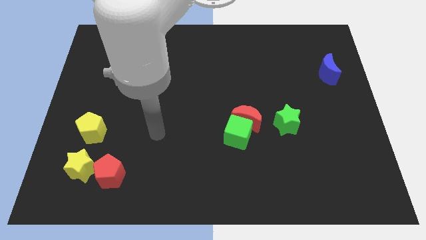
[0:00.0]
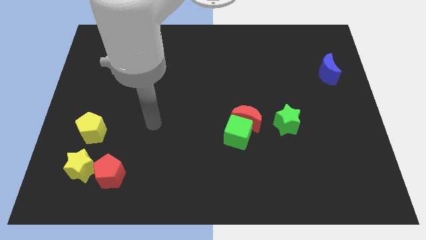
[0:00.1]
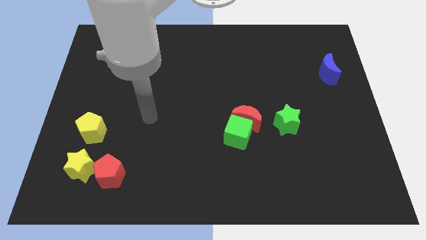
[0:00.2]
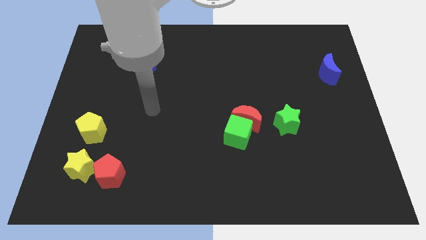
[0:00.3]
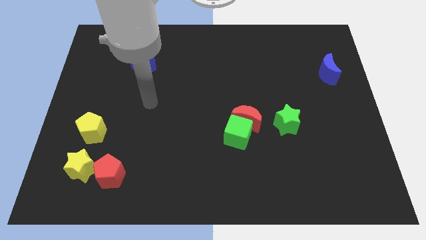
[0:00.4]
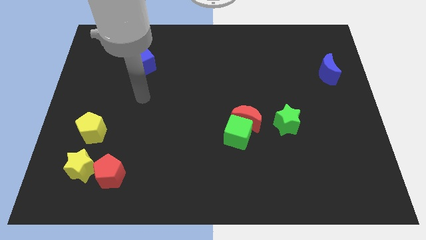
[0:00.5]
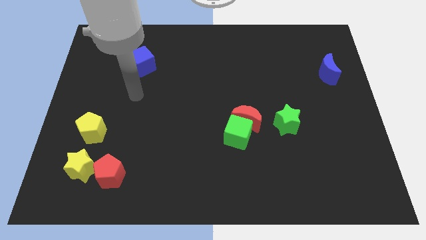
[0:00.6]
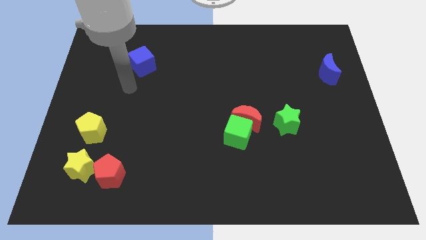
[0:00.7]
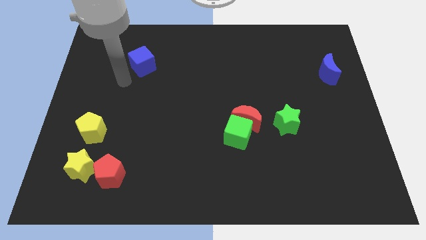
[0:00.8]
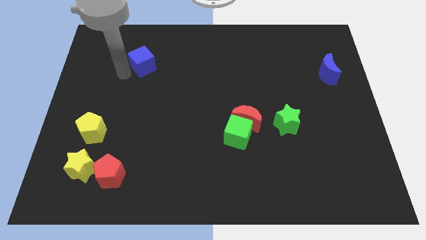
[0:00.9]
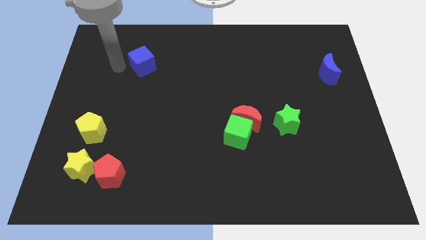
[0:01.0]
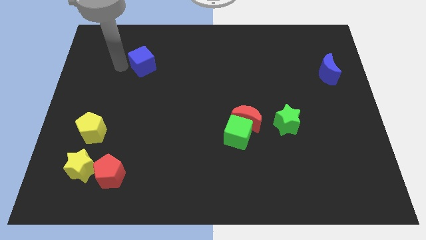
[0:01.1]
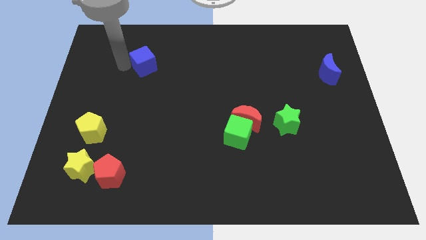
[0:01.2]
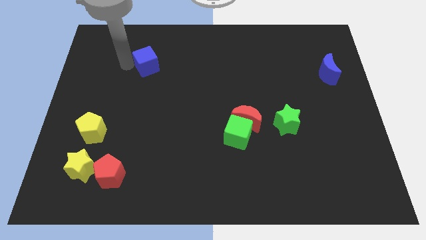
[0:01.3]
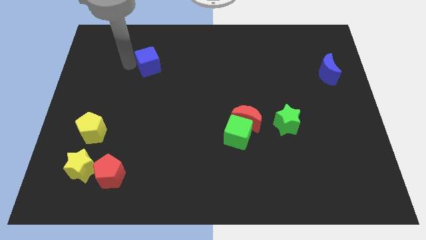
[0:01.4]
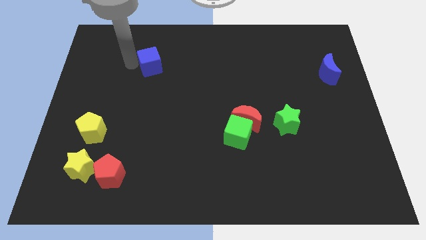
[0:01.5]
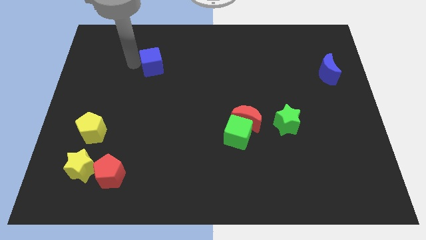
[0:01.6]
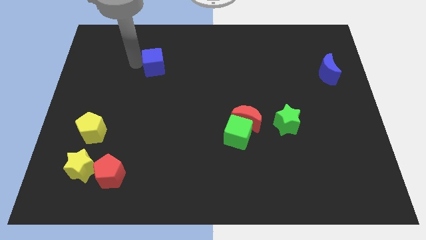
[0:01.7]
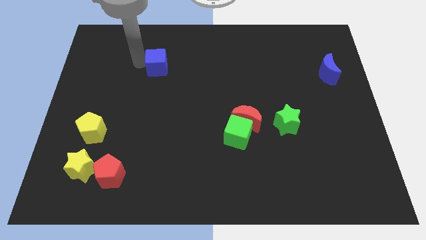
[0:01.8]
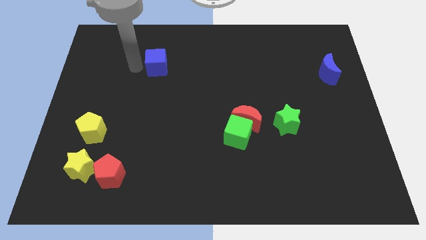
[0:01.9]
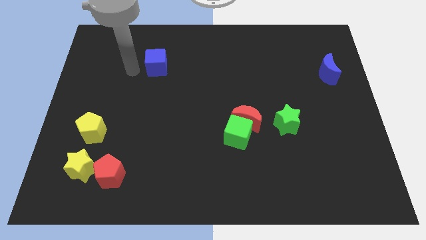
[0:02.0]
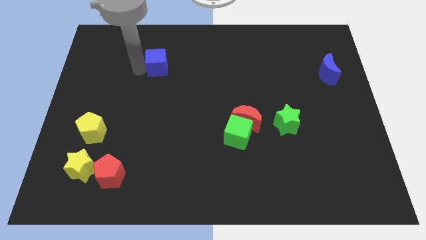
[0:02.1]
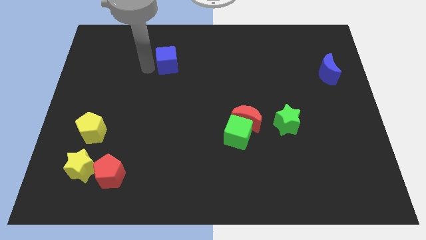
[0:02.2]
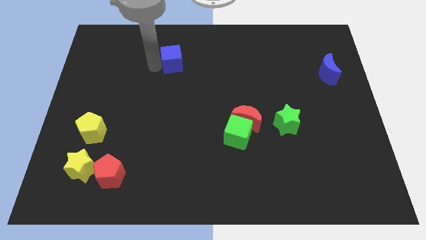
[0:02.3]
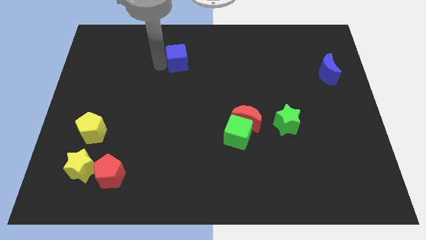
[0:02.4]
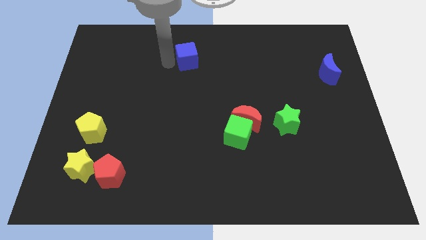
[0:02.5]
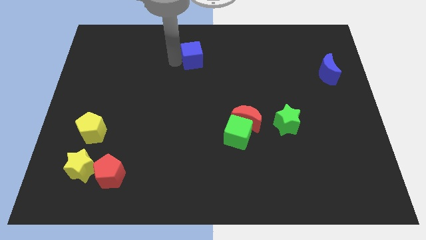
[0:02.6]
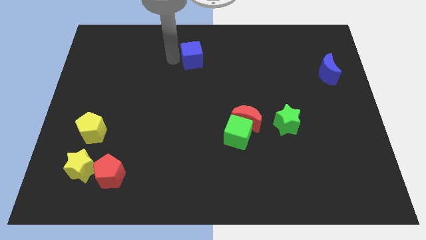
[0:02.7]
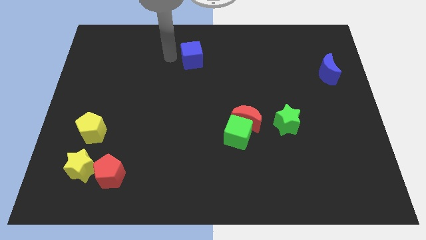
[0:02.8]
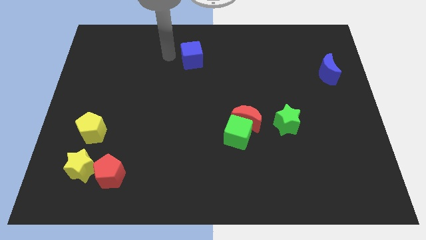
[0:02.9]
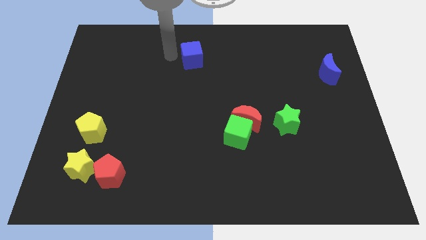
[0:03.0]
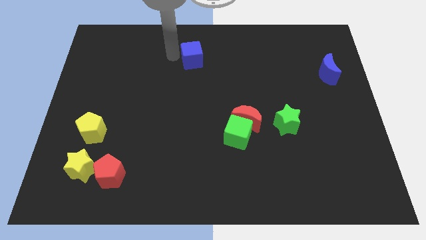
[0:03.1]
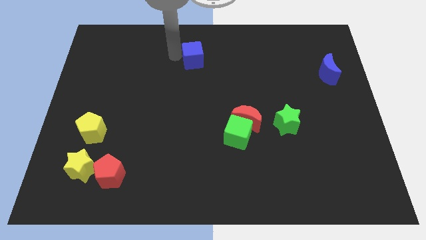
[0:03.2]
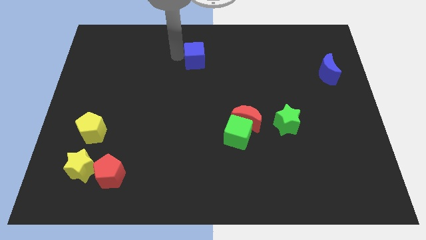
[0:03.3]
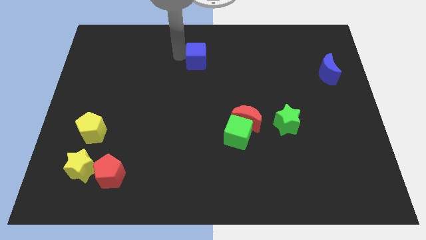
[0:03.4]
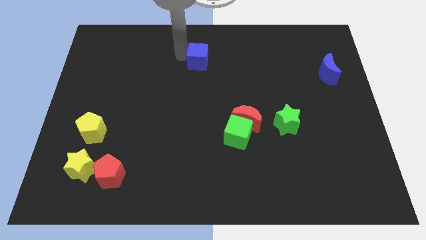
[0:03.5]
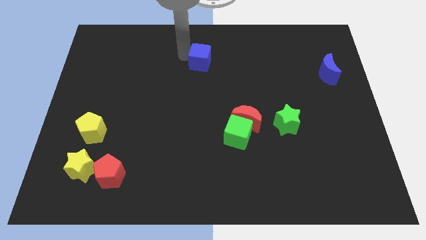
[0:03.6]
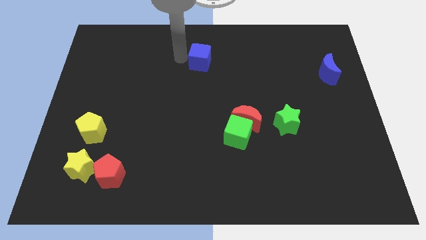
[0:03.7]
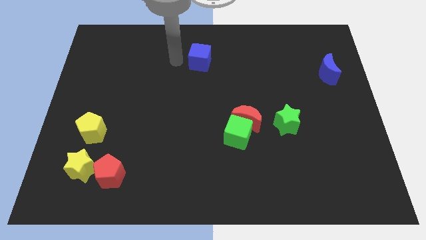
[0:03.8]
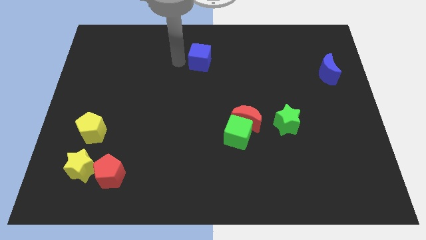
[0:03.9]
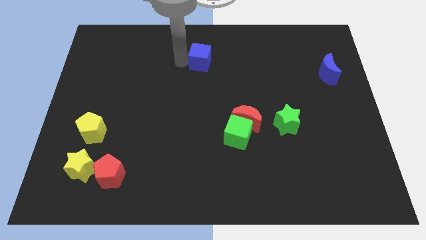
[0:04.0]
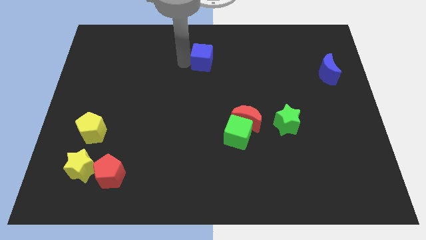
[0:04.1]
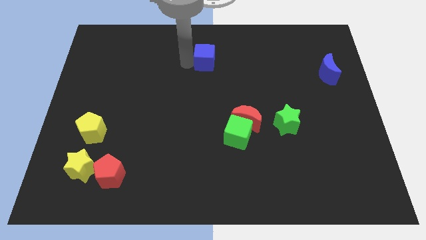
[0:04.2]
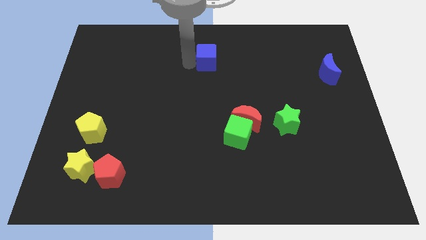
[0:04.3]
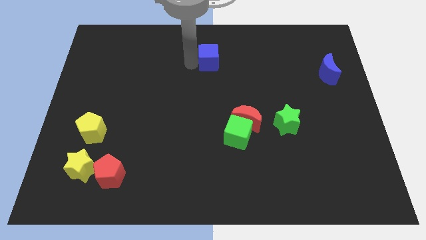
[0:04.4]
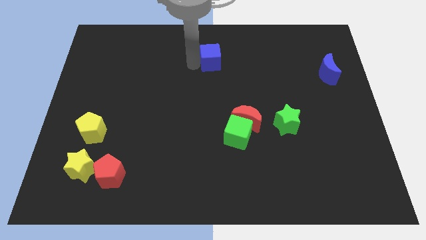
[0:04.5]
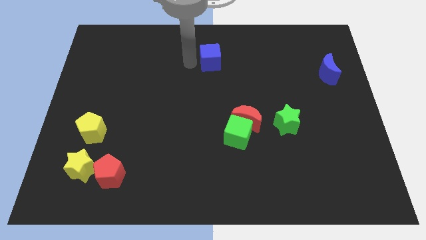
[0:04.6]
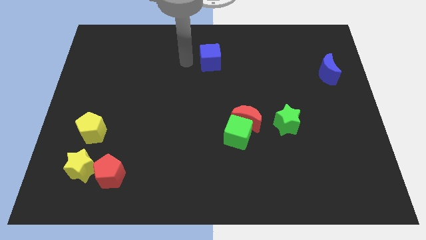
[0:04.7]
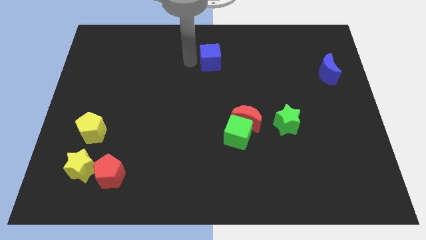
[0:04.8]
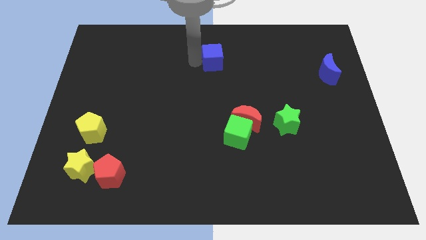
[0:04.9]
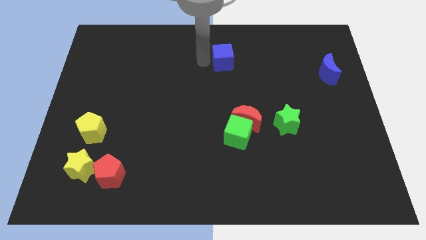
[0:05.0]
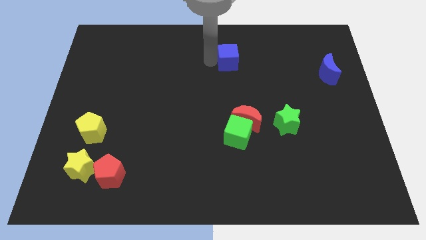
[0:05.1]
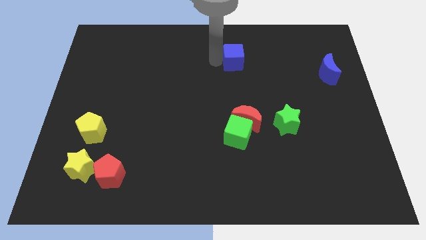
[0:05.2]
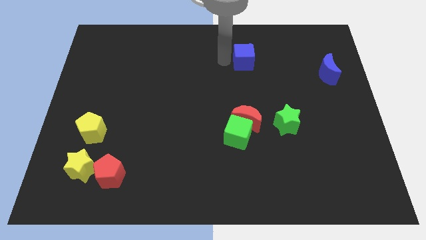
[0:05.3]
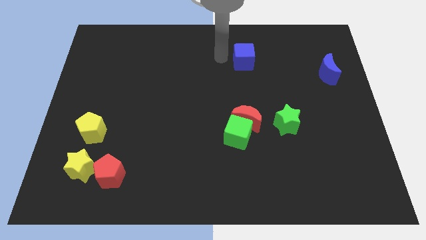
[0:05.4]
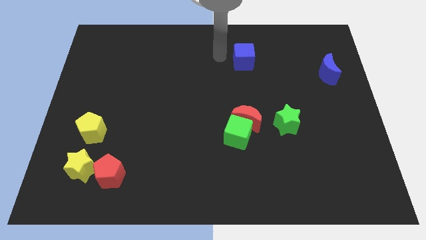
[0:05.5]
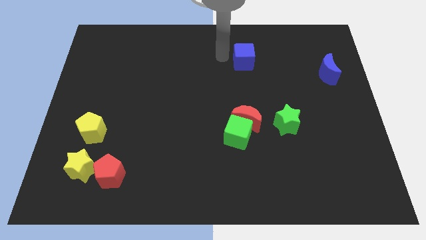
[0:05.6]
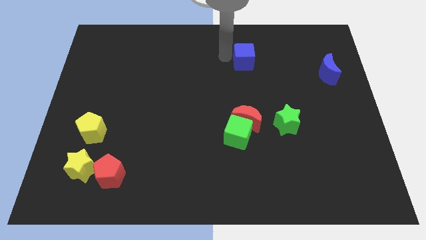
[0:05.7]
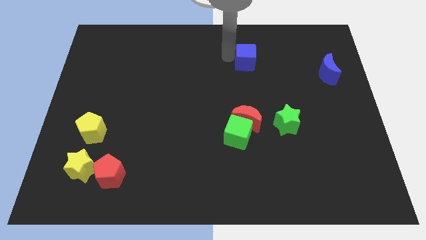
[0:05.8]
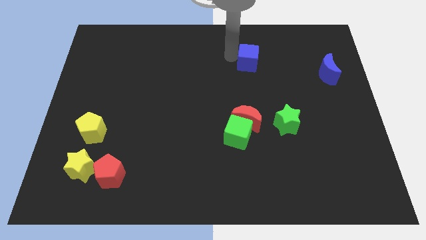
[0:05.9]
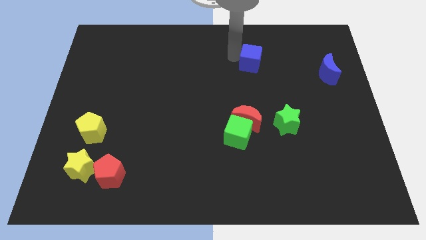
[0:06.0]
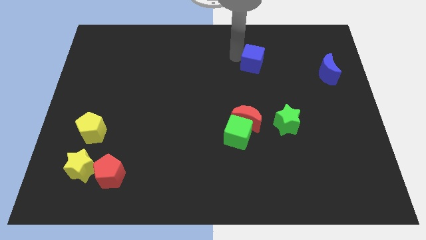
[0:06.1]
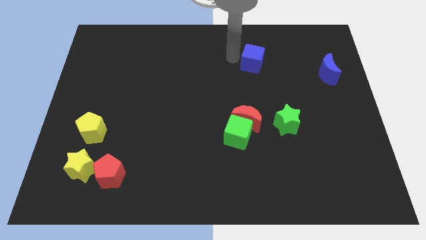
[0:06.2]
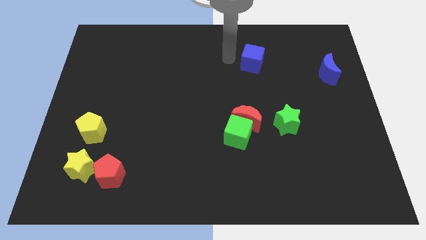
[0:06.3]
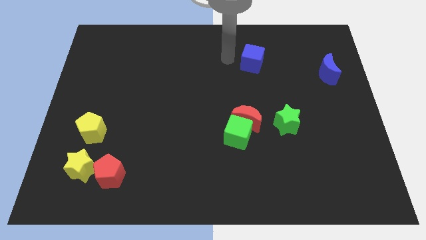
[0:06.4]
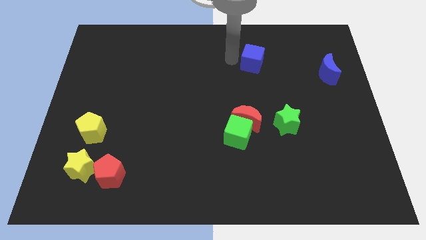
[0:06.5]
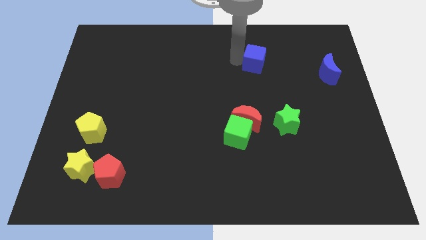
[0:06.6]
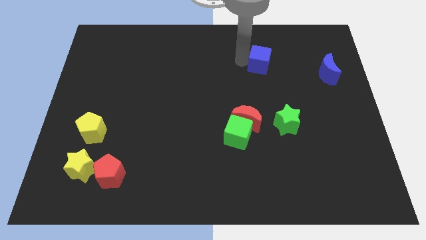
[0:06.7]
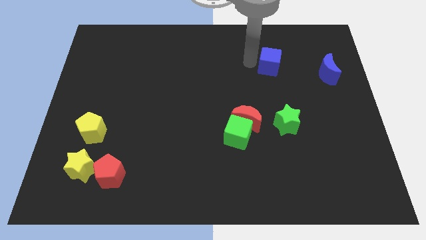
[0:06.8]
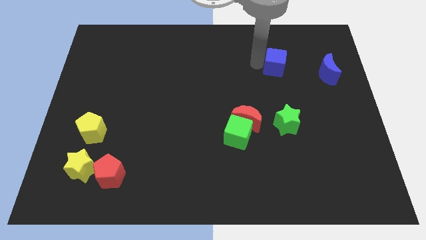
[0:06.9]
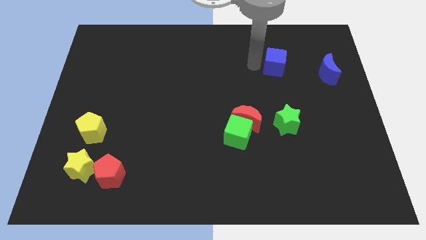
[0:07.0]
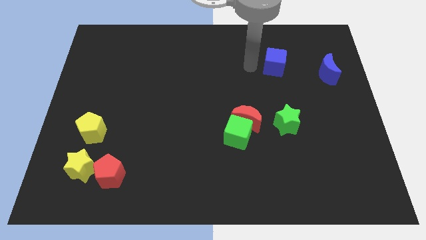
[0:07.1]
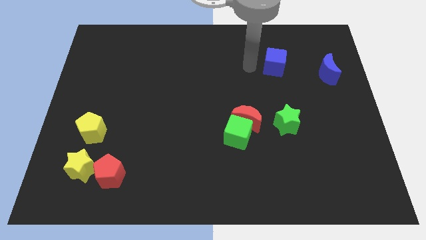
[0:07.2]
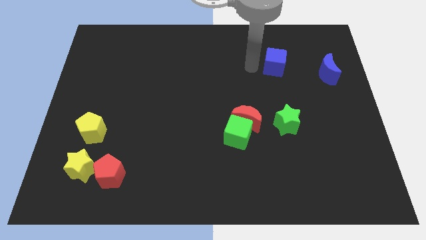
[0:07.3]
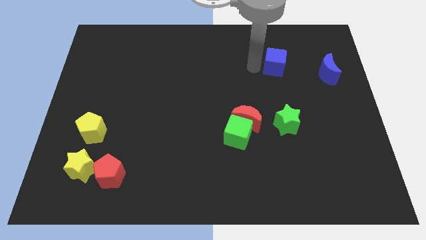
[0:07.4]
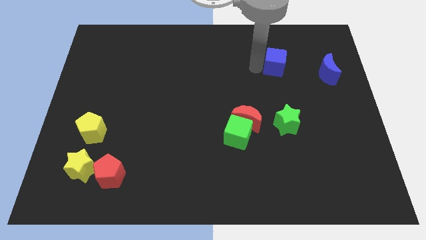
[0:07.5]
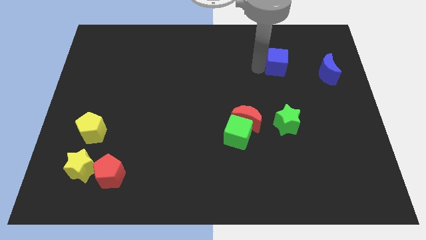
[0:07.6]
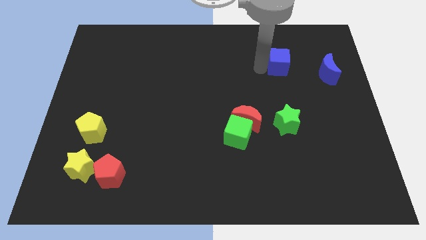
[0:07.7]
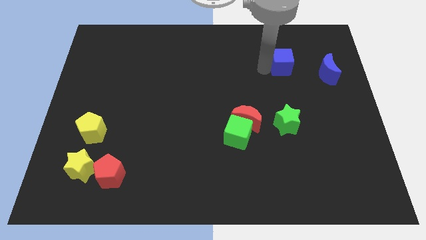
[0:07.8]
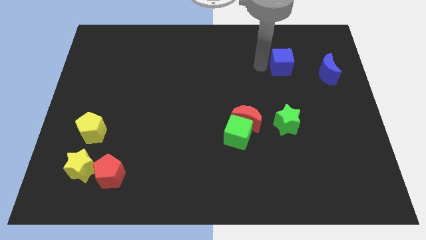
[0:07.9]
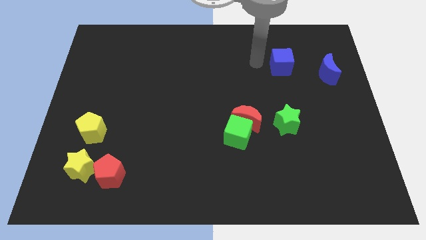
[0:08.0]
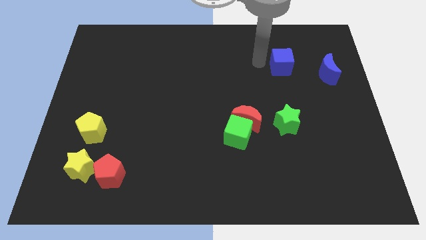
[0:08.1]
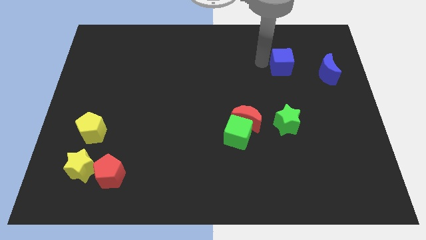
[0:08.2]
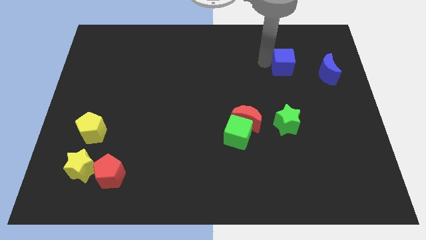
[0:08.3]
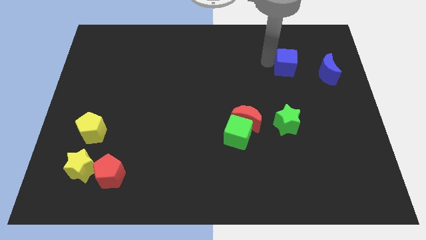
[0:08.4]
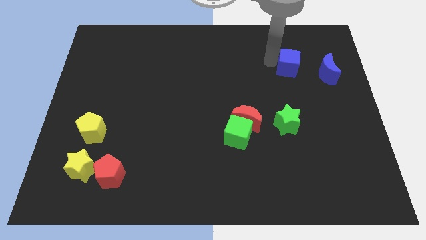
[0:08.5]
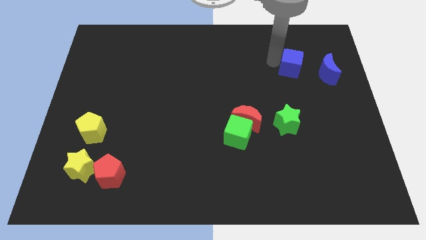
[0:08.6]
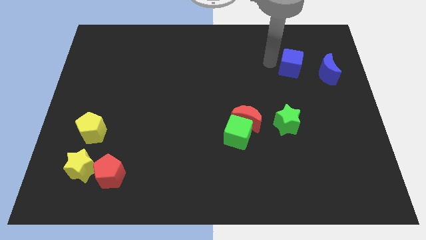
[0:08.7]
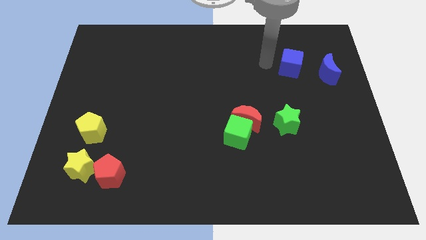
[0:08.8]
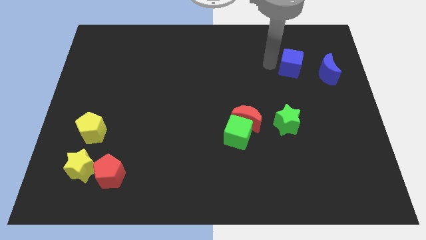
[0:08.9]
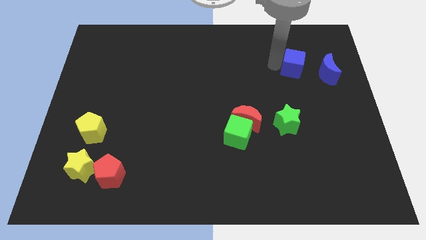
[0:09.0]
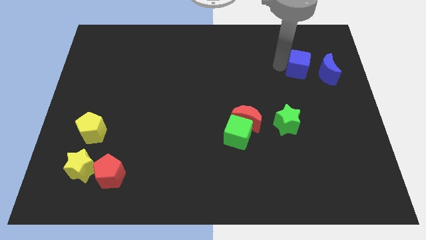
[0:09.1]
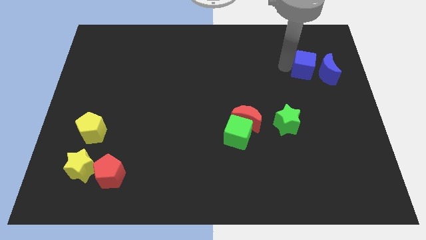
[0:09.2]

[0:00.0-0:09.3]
put the blue cube towards the blue moon
